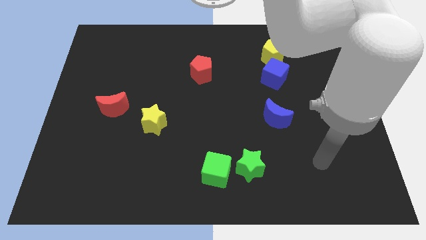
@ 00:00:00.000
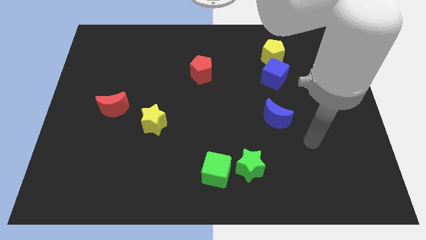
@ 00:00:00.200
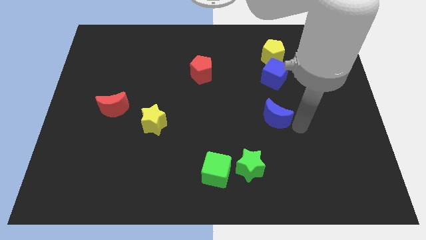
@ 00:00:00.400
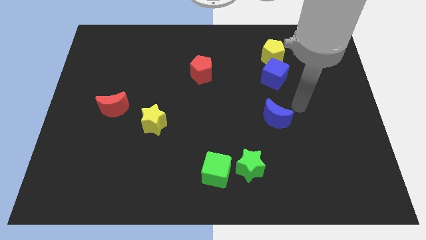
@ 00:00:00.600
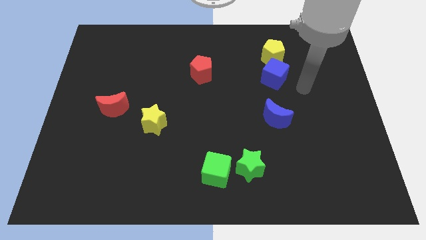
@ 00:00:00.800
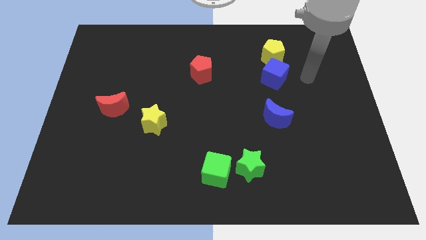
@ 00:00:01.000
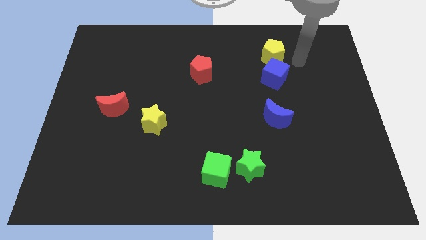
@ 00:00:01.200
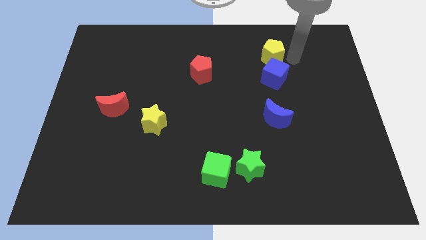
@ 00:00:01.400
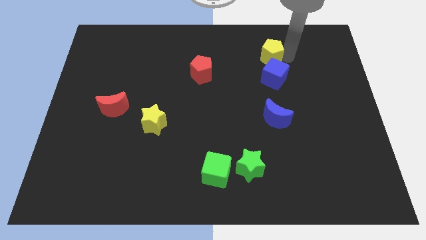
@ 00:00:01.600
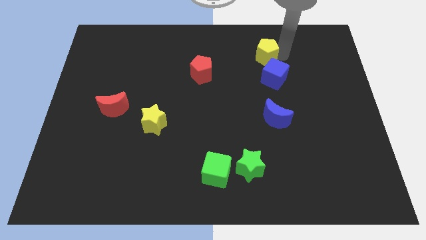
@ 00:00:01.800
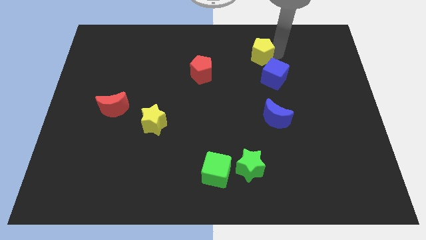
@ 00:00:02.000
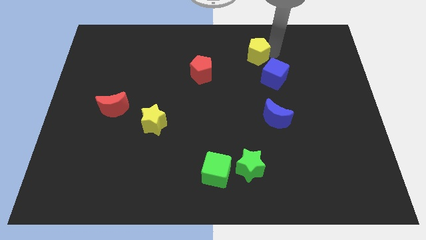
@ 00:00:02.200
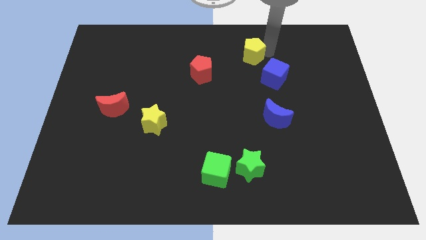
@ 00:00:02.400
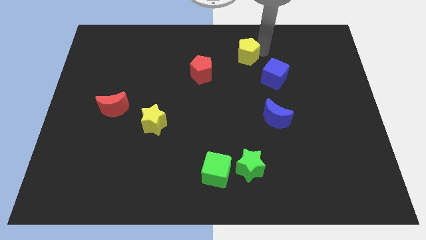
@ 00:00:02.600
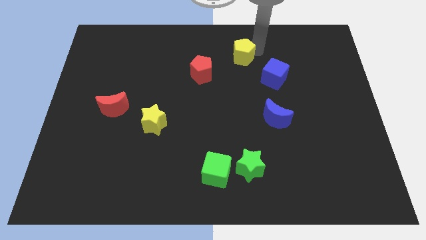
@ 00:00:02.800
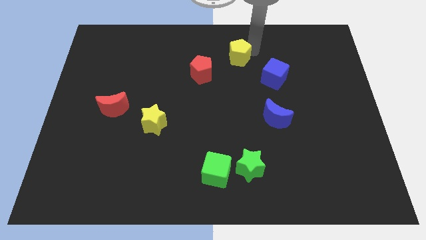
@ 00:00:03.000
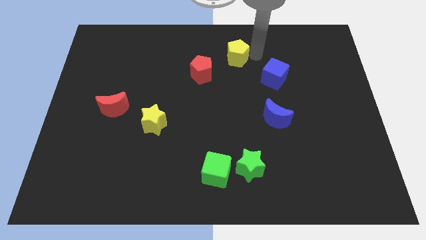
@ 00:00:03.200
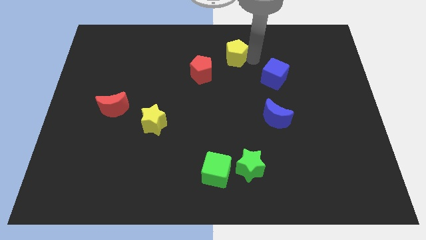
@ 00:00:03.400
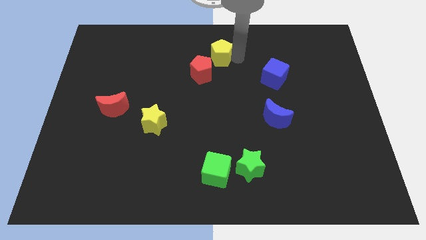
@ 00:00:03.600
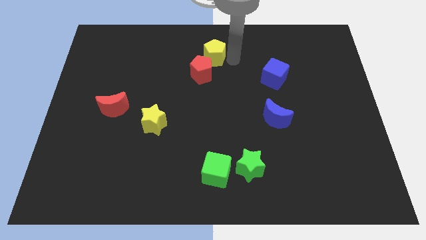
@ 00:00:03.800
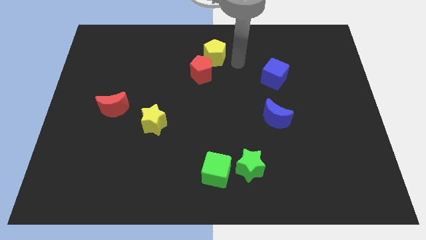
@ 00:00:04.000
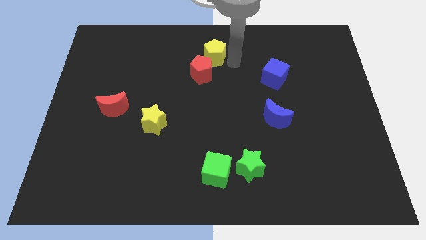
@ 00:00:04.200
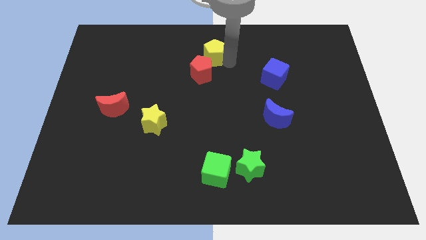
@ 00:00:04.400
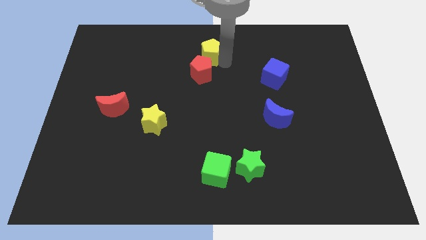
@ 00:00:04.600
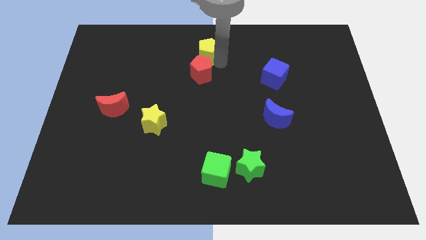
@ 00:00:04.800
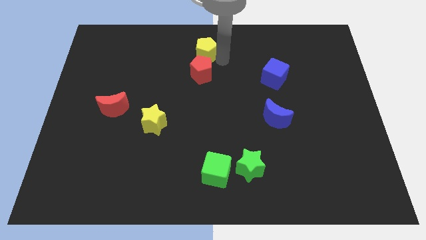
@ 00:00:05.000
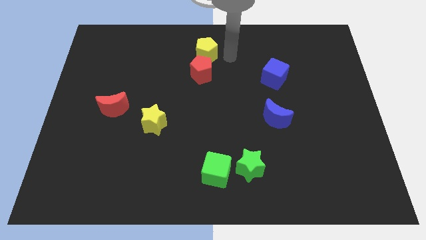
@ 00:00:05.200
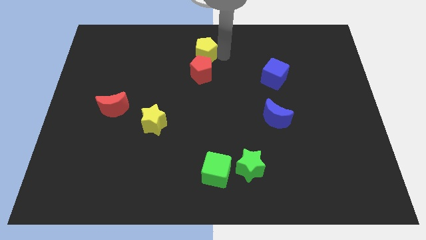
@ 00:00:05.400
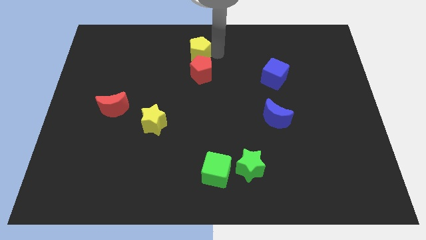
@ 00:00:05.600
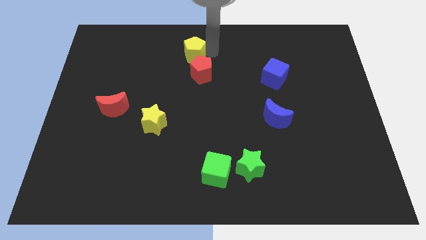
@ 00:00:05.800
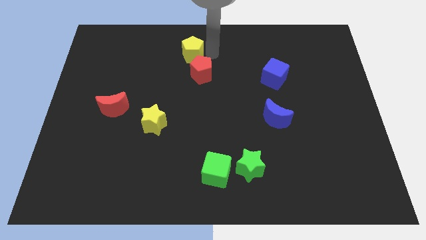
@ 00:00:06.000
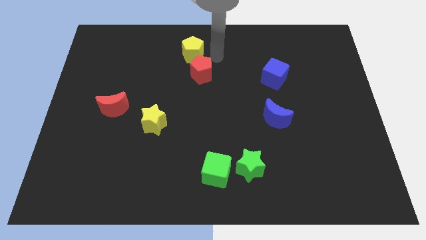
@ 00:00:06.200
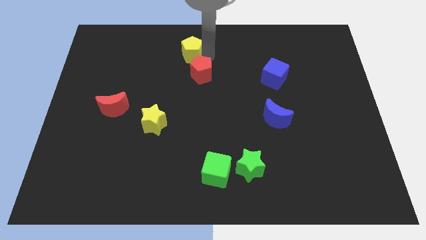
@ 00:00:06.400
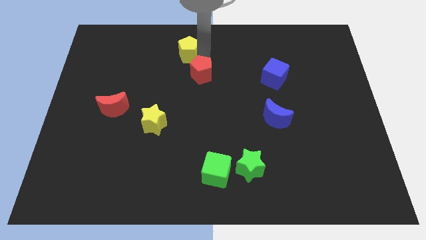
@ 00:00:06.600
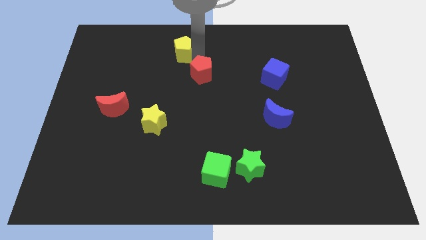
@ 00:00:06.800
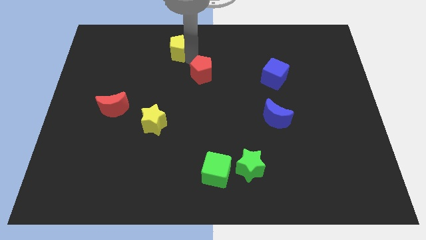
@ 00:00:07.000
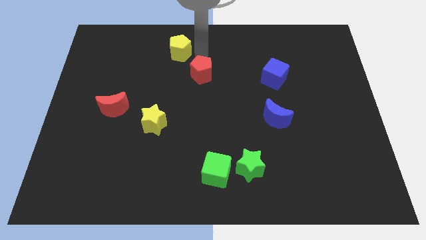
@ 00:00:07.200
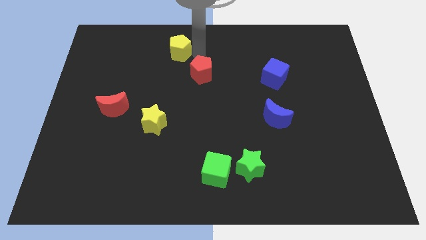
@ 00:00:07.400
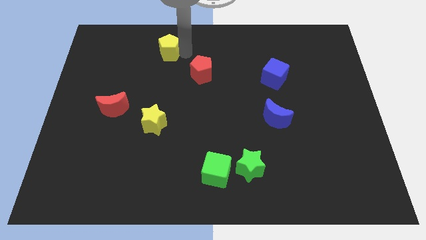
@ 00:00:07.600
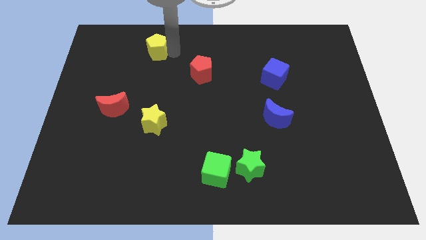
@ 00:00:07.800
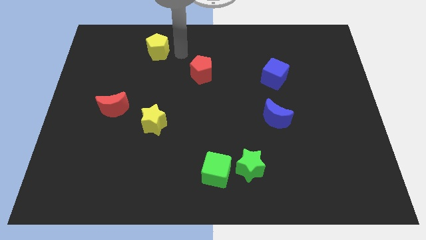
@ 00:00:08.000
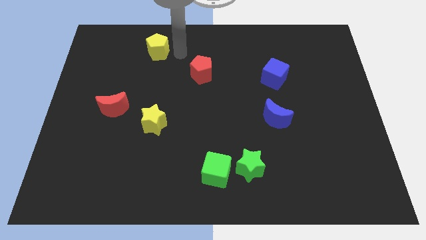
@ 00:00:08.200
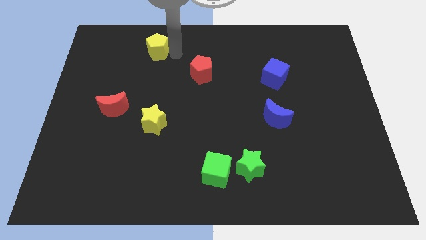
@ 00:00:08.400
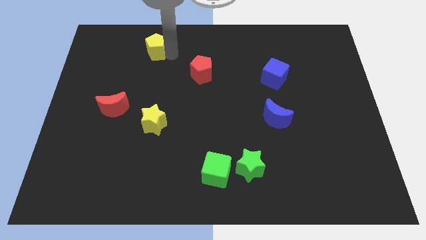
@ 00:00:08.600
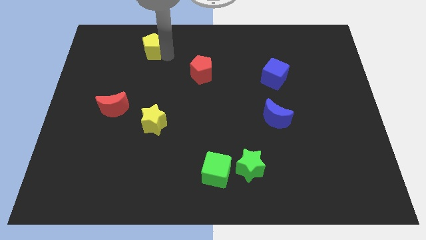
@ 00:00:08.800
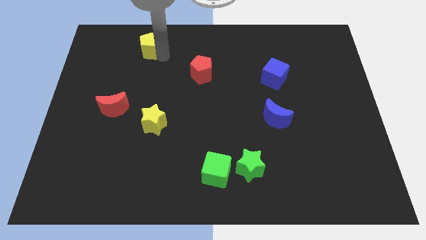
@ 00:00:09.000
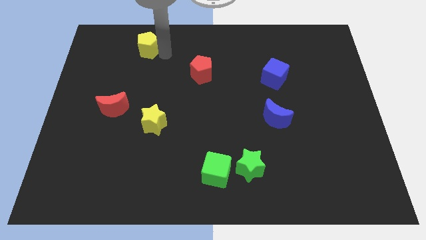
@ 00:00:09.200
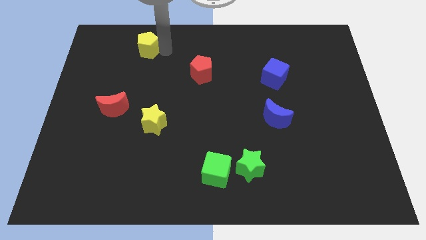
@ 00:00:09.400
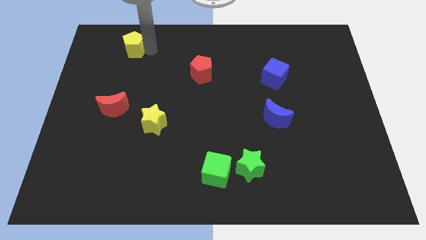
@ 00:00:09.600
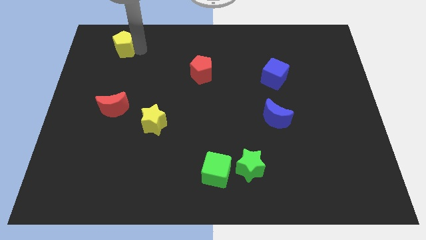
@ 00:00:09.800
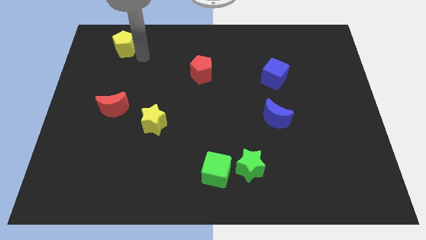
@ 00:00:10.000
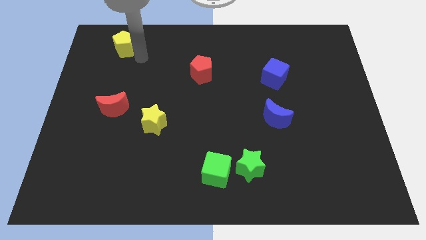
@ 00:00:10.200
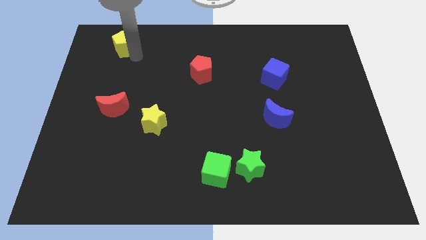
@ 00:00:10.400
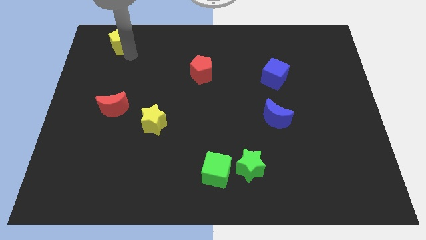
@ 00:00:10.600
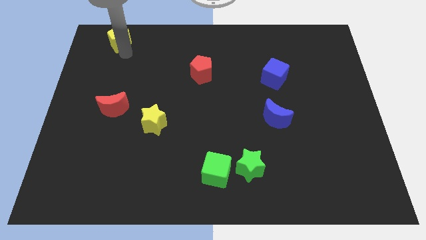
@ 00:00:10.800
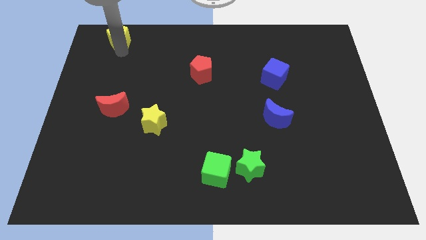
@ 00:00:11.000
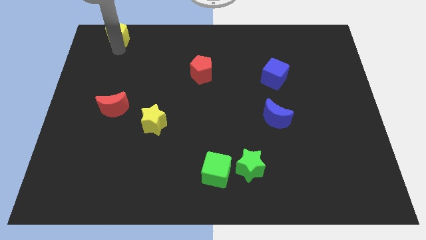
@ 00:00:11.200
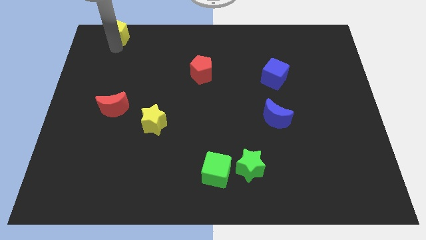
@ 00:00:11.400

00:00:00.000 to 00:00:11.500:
move the yellow pentagon to the top left corner
